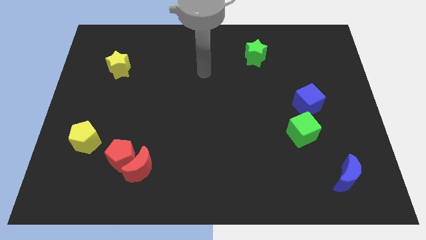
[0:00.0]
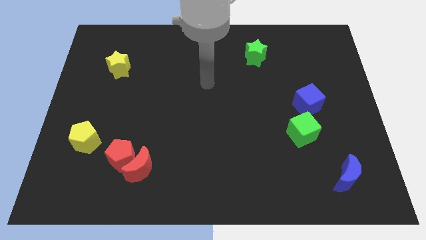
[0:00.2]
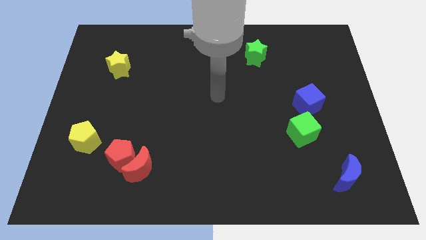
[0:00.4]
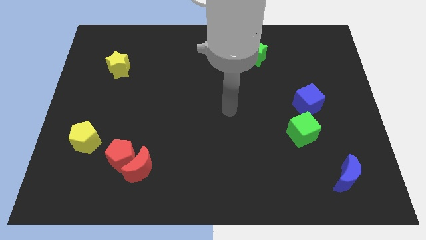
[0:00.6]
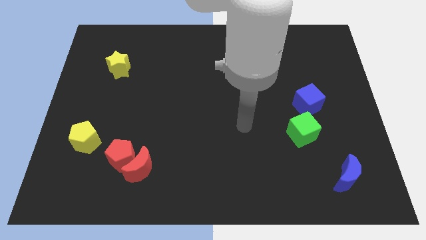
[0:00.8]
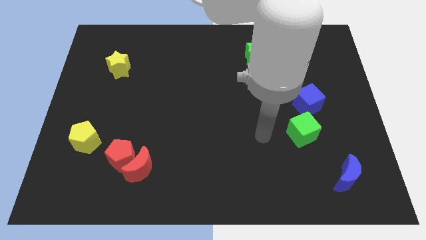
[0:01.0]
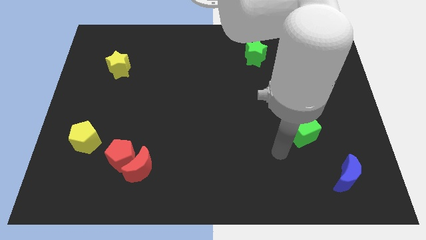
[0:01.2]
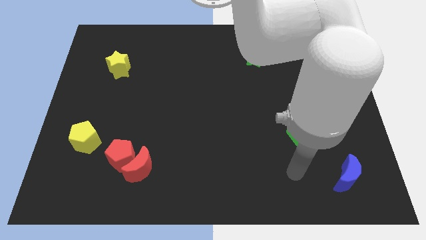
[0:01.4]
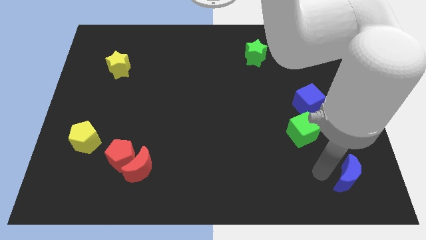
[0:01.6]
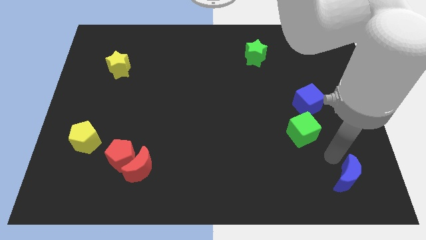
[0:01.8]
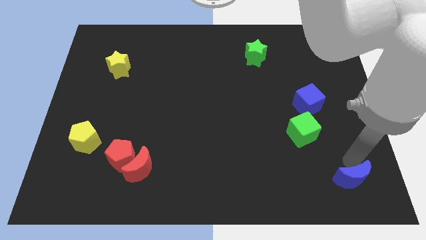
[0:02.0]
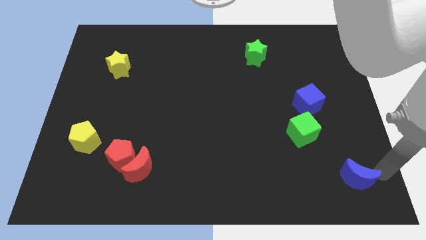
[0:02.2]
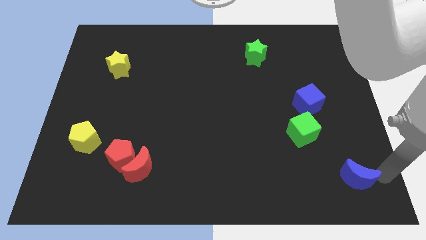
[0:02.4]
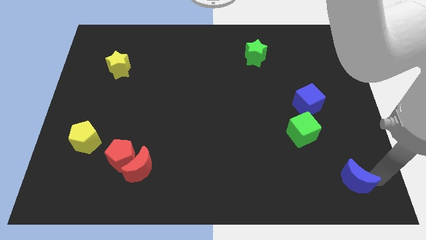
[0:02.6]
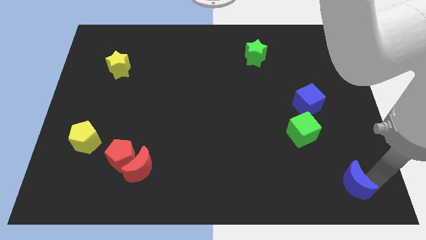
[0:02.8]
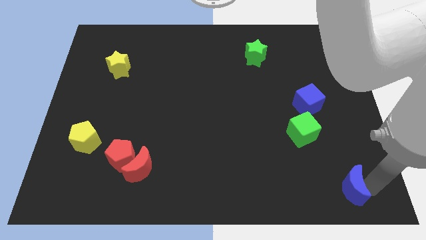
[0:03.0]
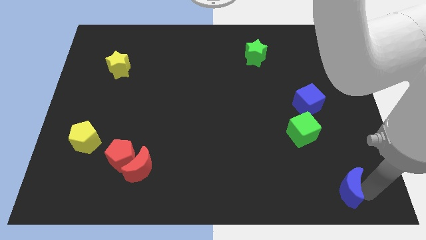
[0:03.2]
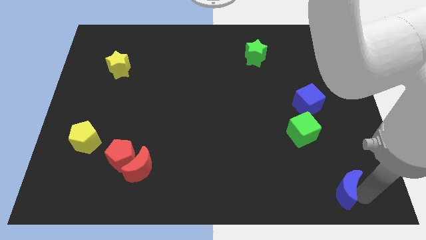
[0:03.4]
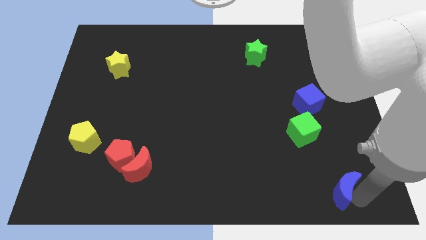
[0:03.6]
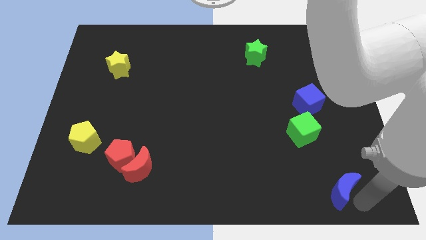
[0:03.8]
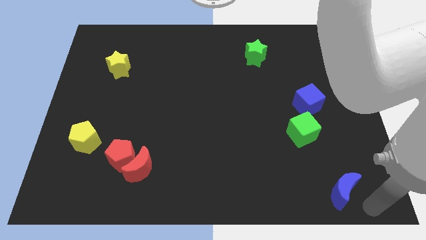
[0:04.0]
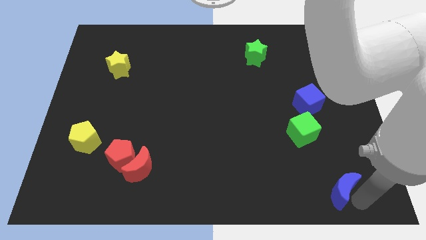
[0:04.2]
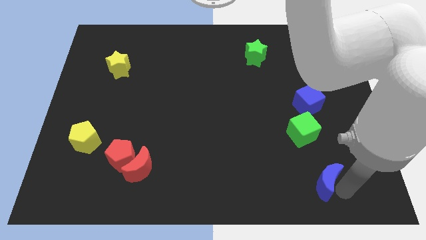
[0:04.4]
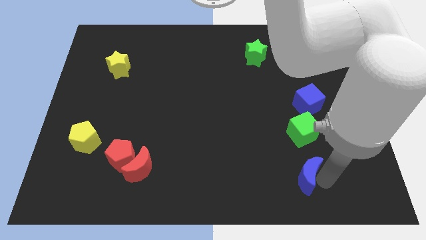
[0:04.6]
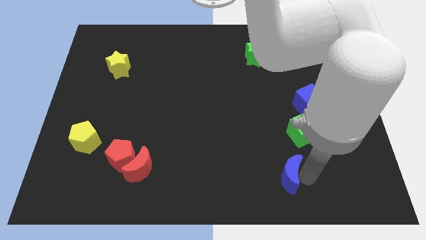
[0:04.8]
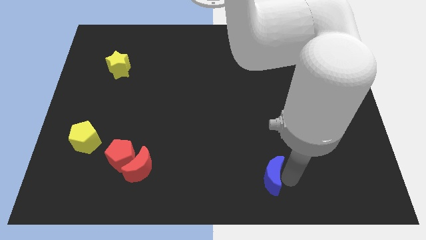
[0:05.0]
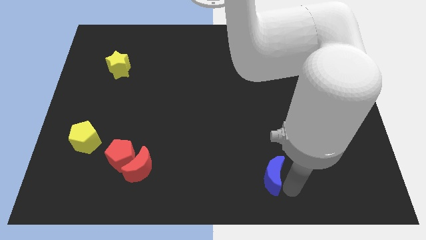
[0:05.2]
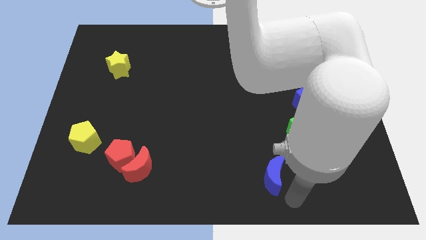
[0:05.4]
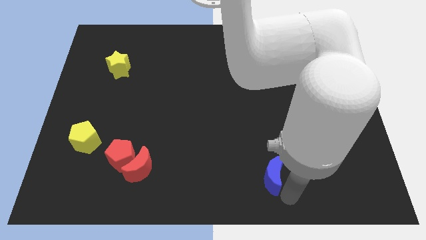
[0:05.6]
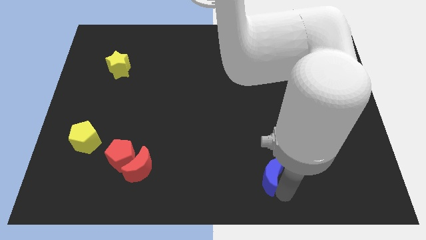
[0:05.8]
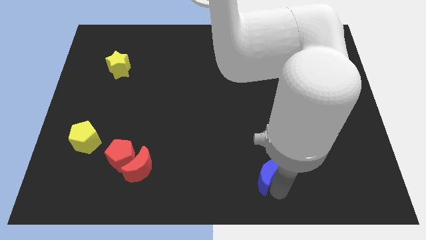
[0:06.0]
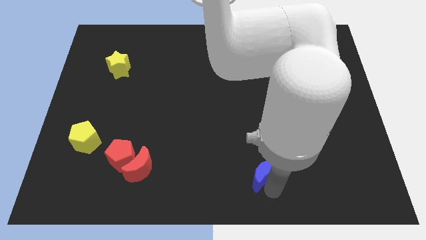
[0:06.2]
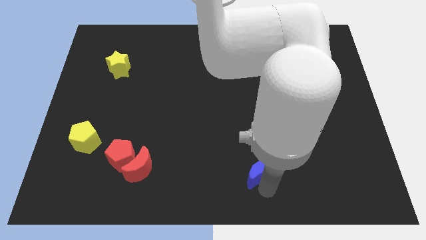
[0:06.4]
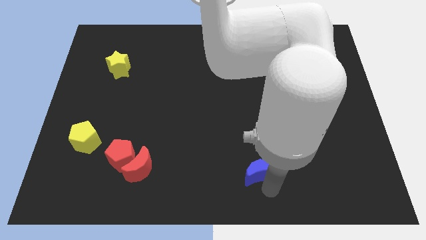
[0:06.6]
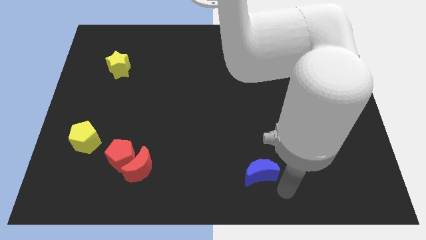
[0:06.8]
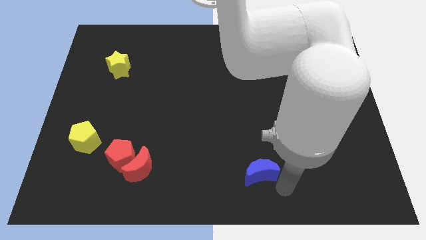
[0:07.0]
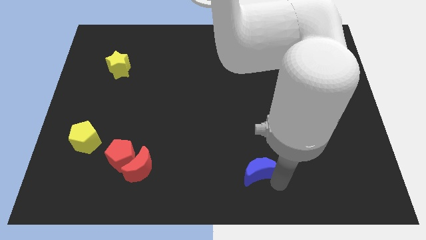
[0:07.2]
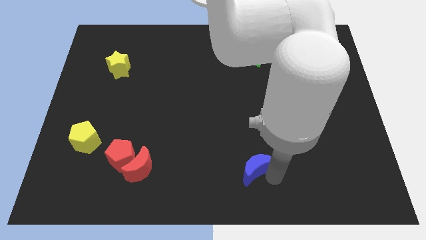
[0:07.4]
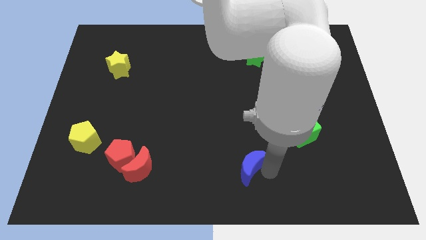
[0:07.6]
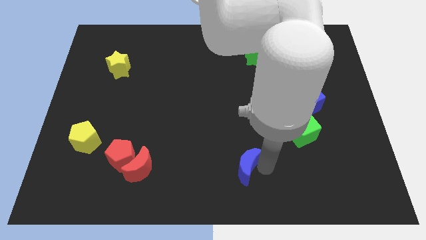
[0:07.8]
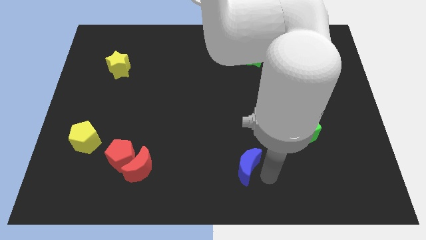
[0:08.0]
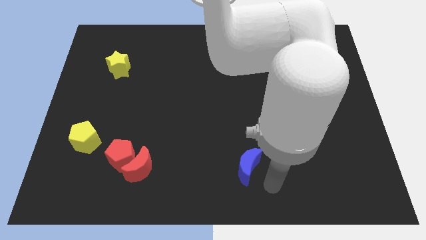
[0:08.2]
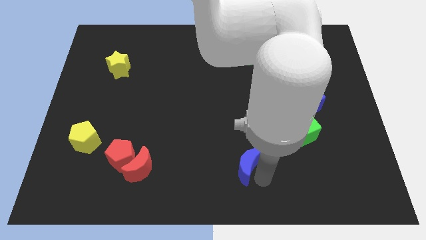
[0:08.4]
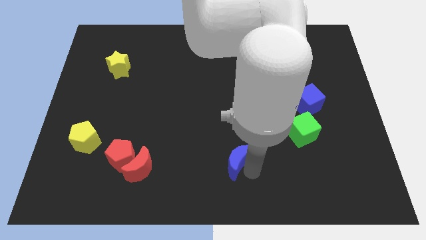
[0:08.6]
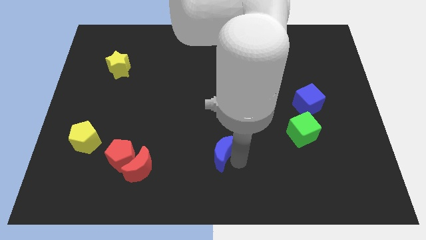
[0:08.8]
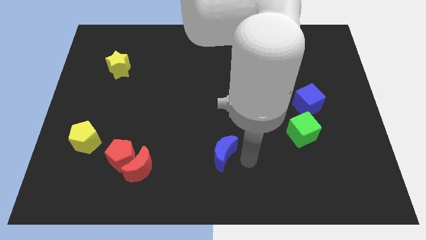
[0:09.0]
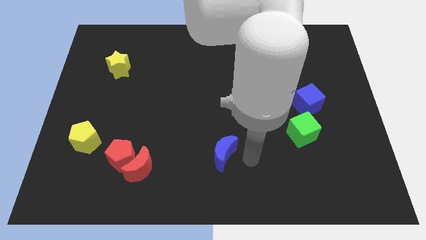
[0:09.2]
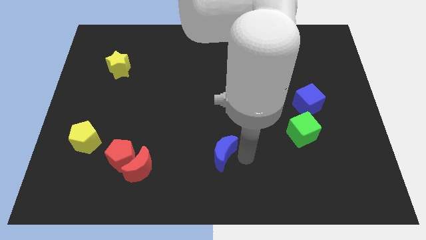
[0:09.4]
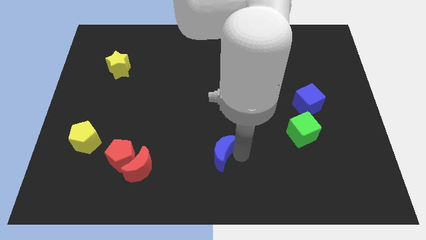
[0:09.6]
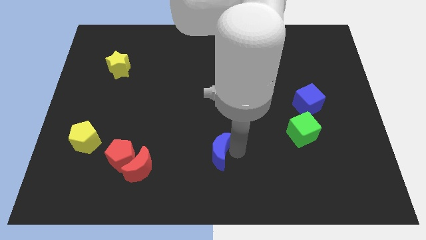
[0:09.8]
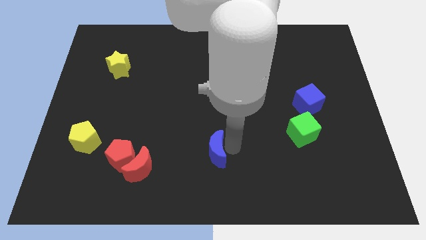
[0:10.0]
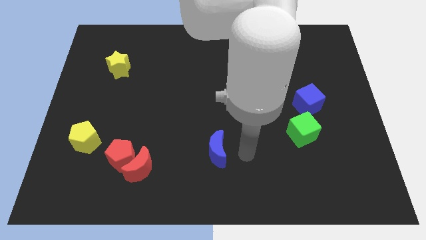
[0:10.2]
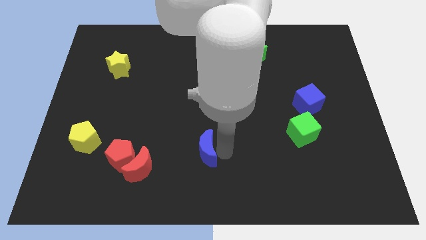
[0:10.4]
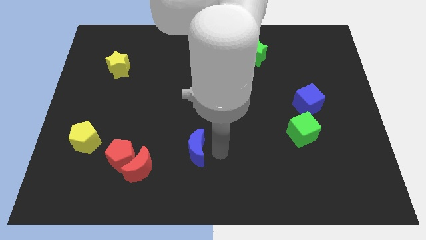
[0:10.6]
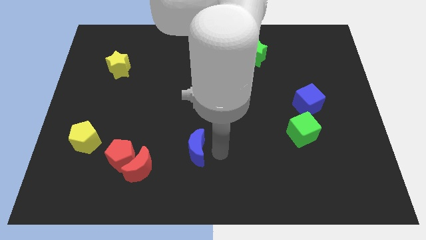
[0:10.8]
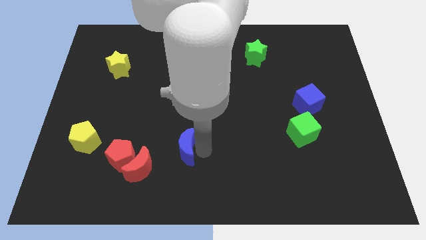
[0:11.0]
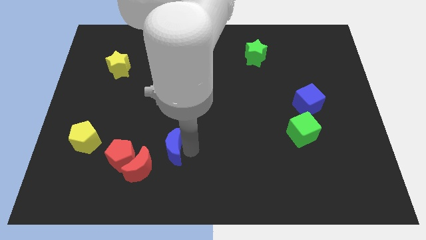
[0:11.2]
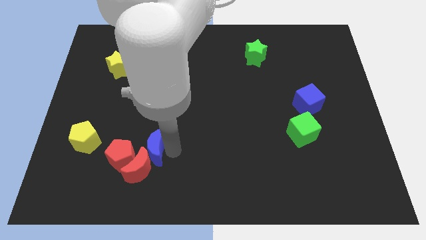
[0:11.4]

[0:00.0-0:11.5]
slide the blue moon to the right side of the yellow pentagon
